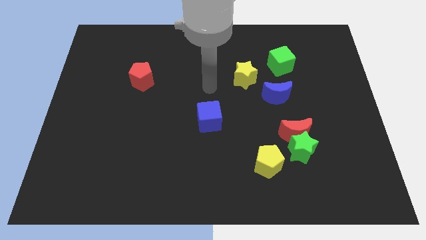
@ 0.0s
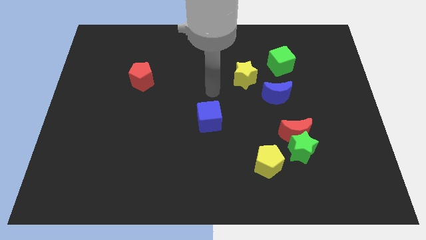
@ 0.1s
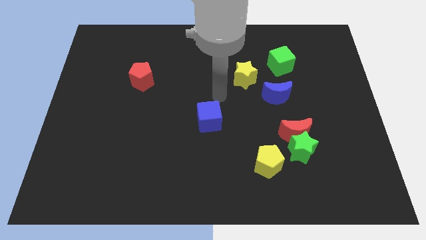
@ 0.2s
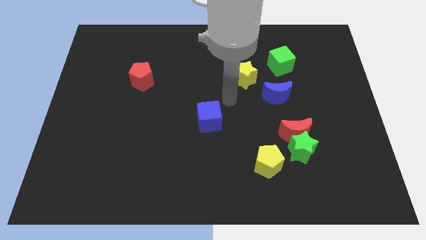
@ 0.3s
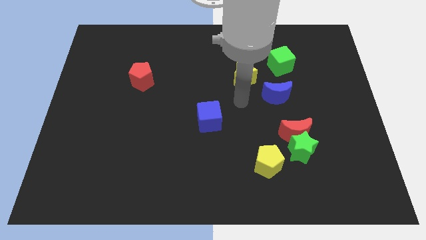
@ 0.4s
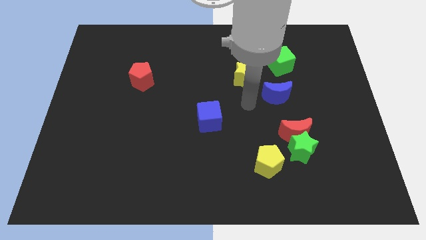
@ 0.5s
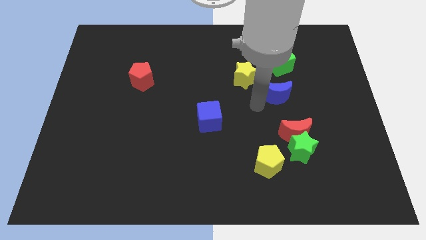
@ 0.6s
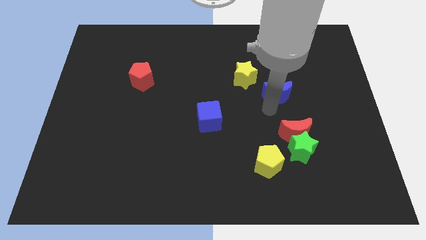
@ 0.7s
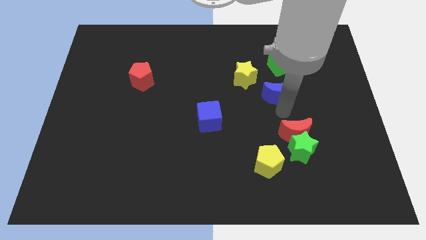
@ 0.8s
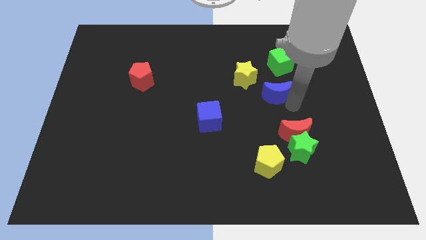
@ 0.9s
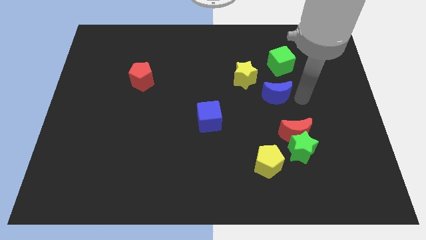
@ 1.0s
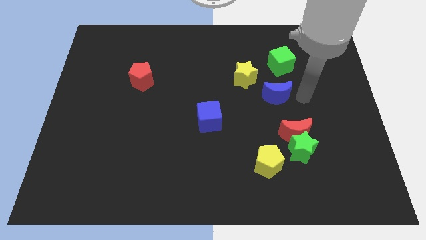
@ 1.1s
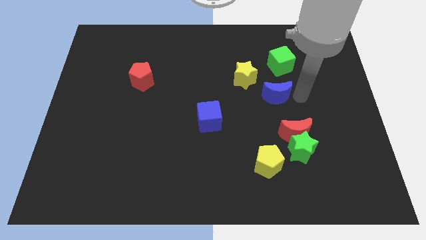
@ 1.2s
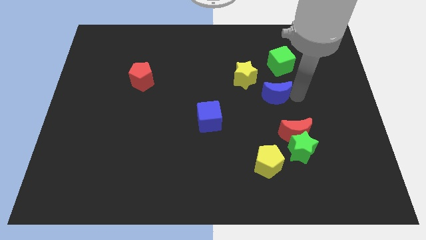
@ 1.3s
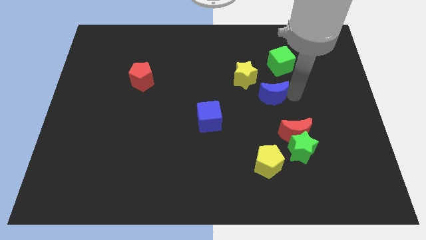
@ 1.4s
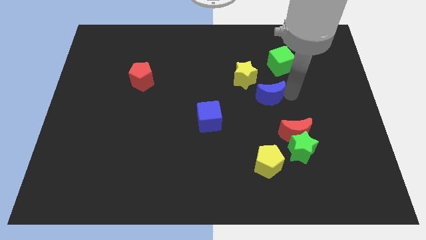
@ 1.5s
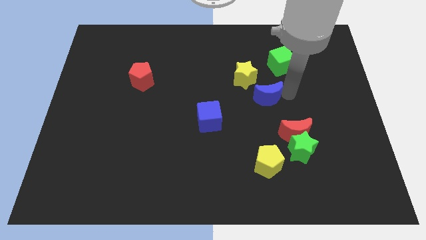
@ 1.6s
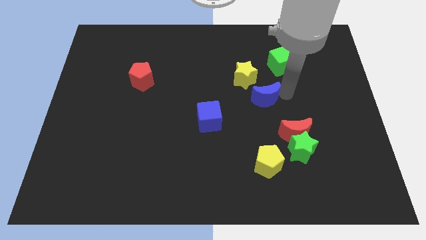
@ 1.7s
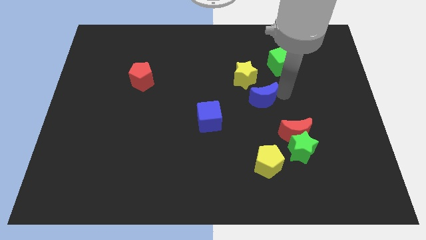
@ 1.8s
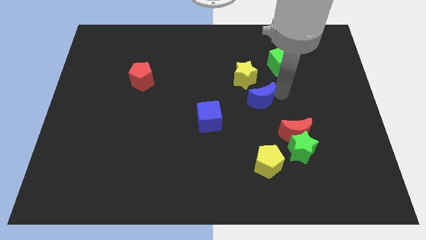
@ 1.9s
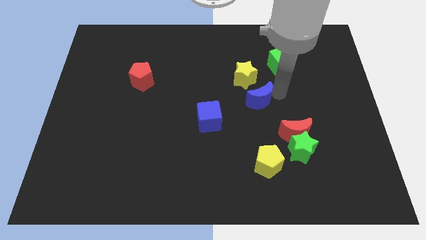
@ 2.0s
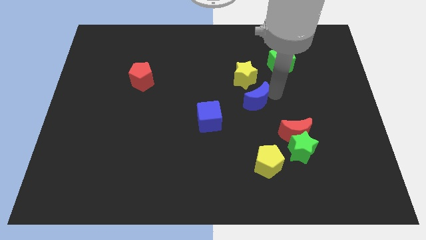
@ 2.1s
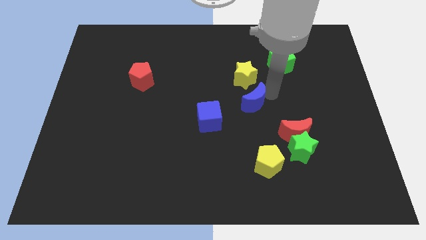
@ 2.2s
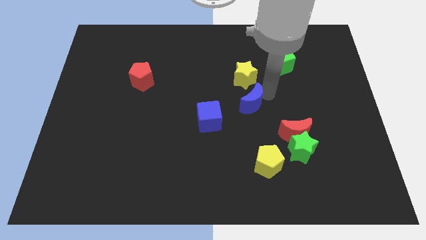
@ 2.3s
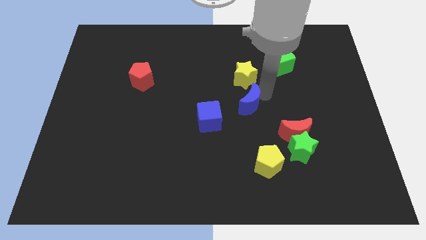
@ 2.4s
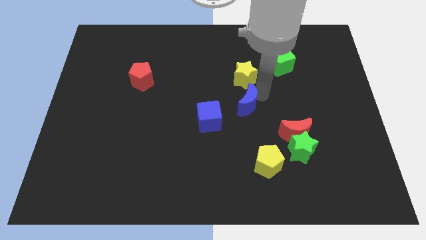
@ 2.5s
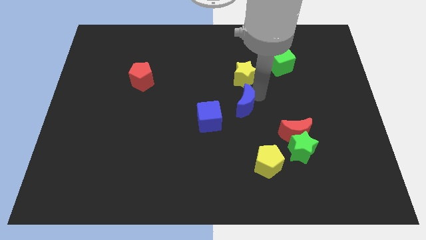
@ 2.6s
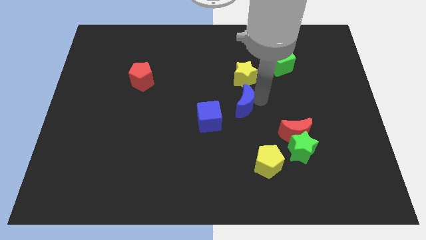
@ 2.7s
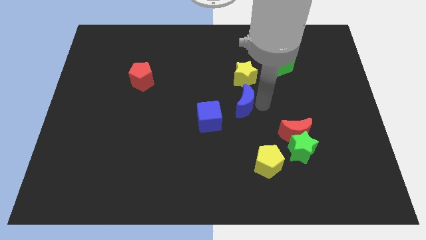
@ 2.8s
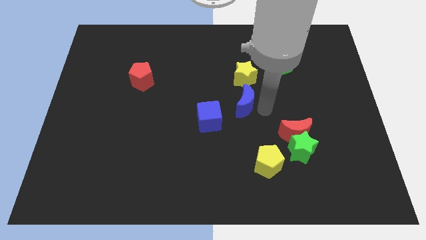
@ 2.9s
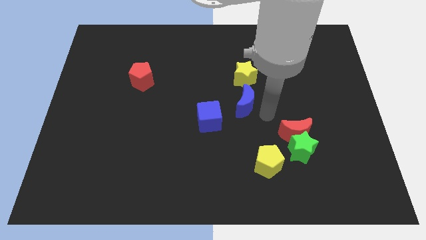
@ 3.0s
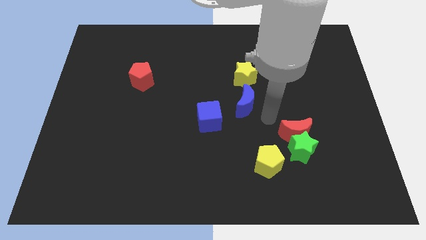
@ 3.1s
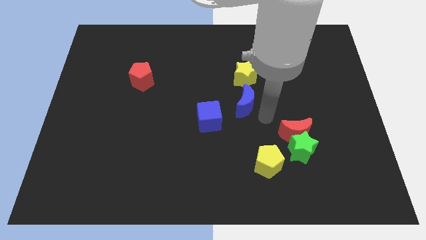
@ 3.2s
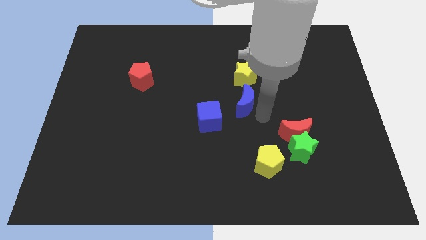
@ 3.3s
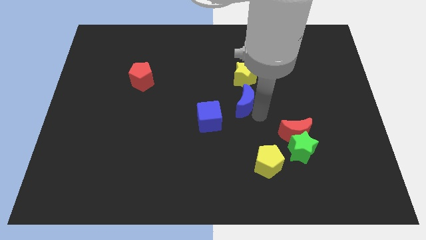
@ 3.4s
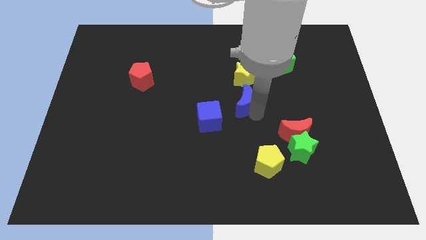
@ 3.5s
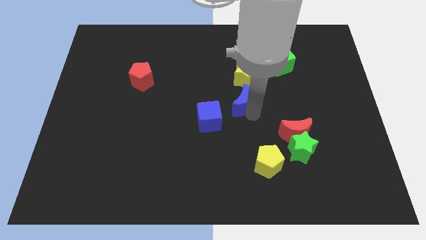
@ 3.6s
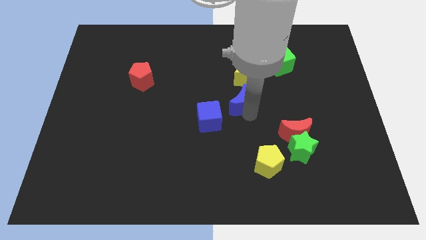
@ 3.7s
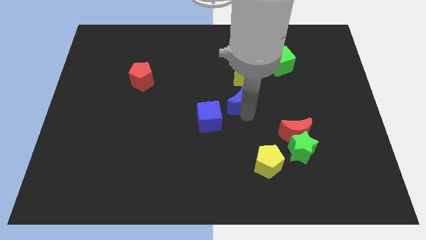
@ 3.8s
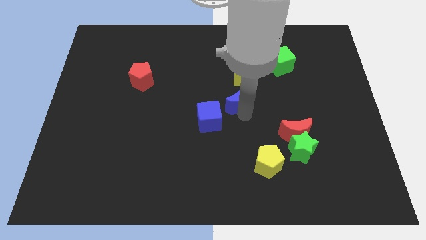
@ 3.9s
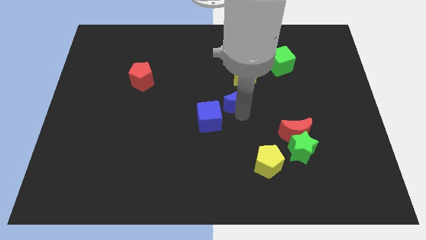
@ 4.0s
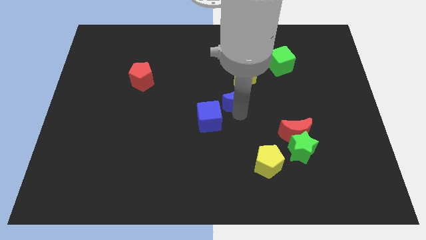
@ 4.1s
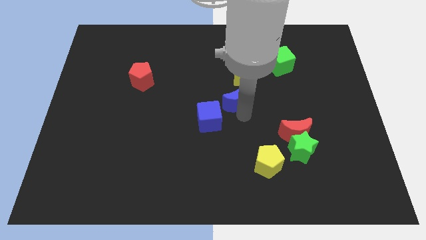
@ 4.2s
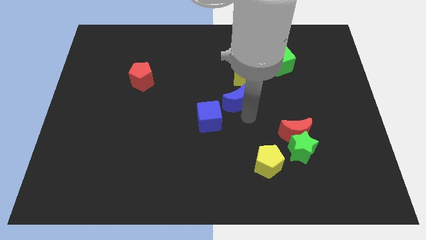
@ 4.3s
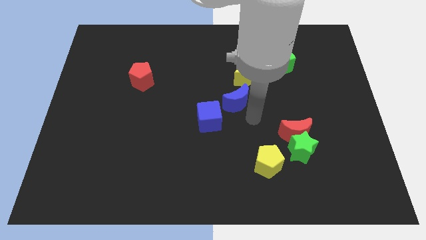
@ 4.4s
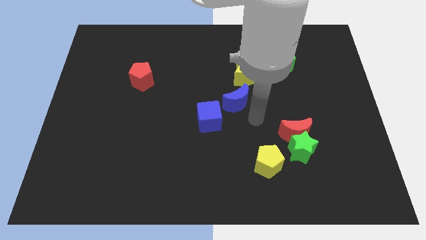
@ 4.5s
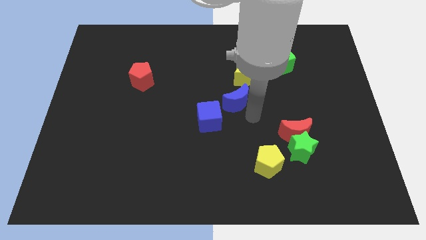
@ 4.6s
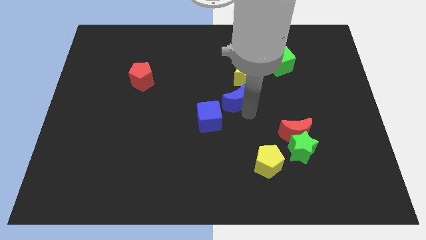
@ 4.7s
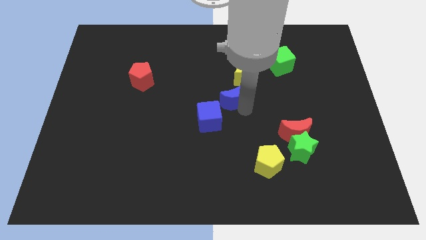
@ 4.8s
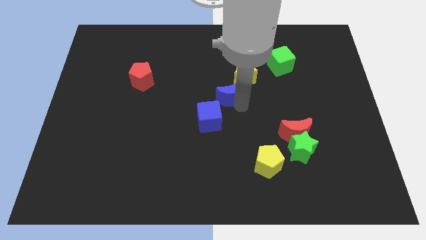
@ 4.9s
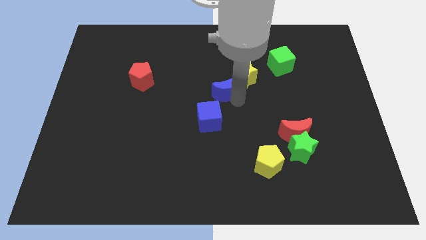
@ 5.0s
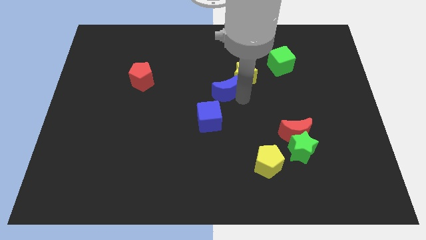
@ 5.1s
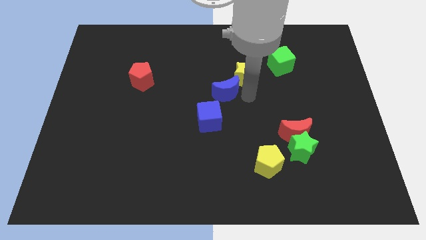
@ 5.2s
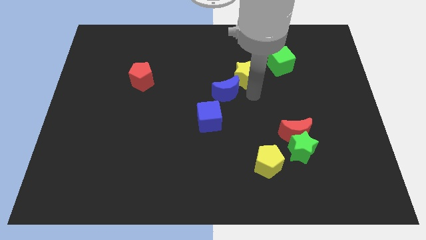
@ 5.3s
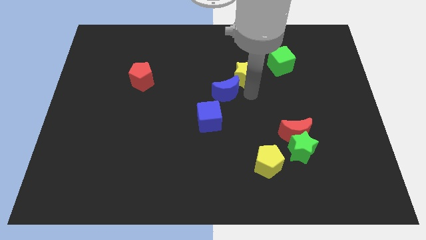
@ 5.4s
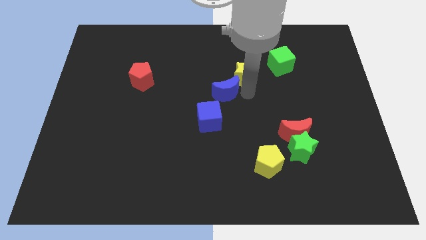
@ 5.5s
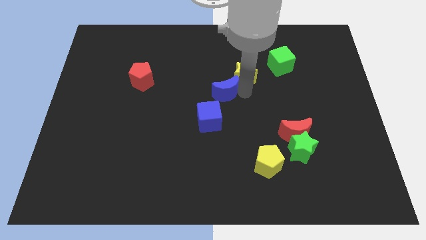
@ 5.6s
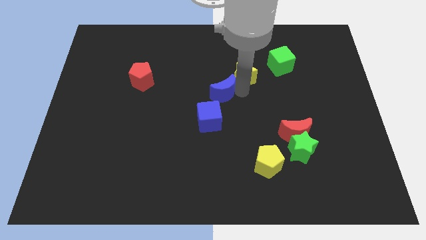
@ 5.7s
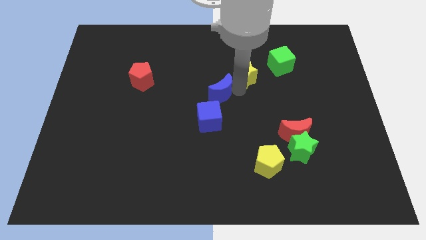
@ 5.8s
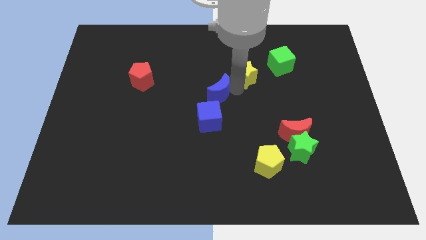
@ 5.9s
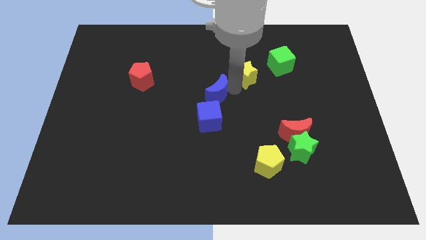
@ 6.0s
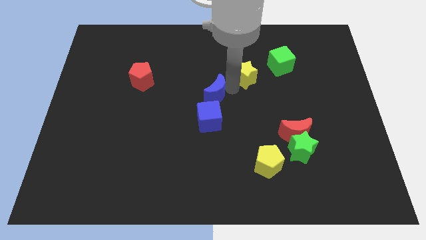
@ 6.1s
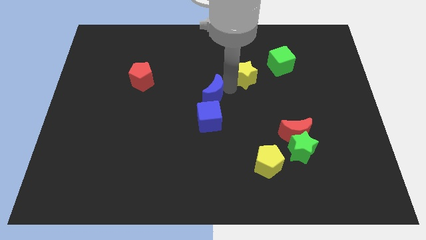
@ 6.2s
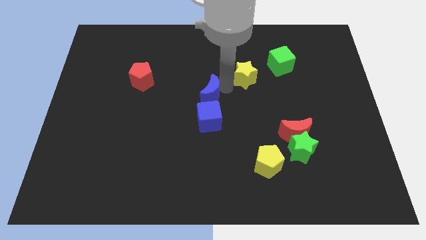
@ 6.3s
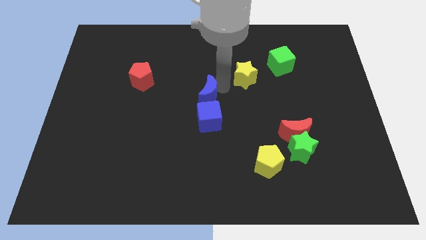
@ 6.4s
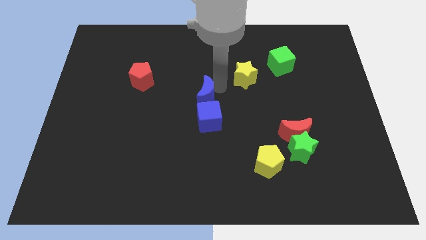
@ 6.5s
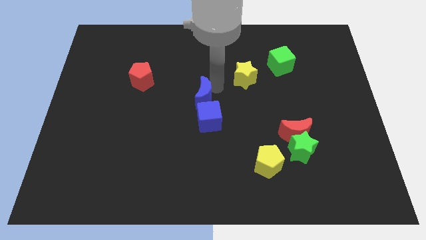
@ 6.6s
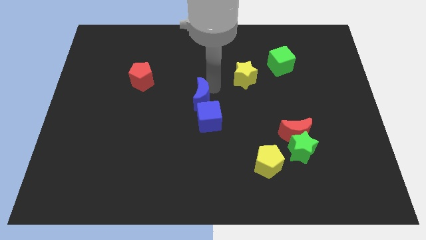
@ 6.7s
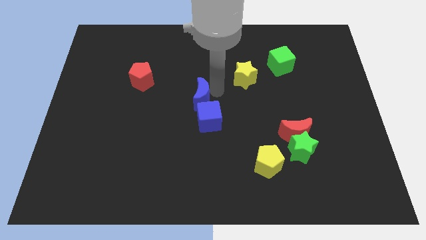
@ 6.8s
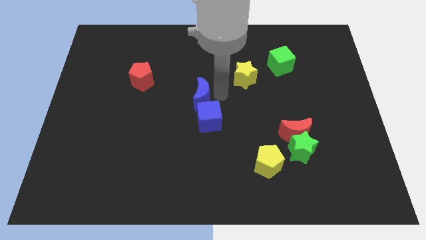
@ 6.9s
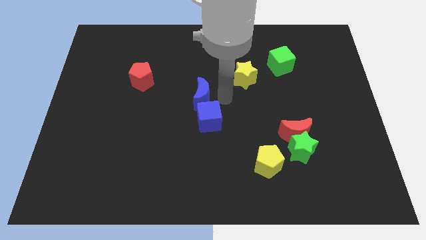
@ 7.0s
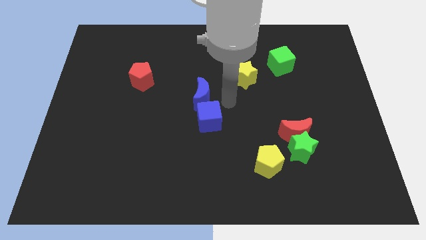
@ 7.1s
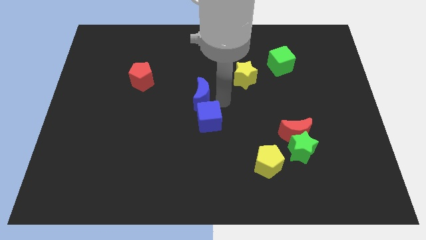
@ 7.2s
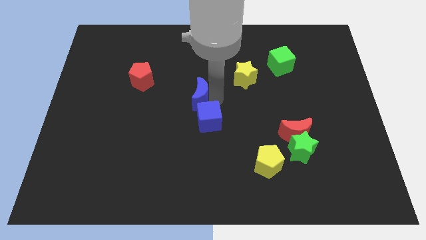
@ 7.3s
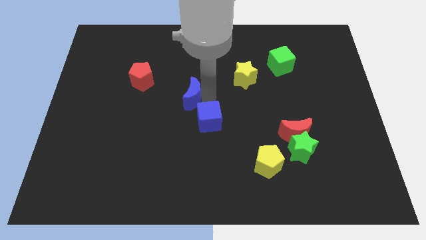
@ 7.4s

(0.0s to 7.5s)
slide the blue moon left

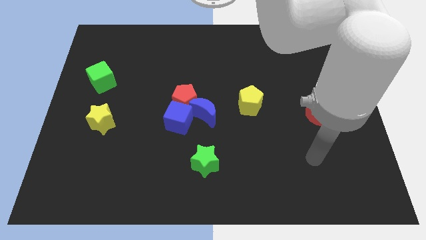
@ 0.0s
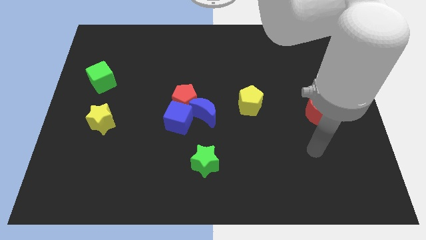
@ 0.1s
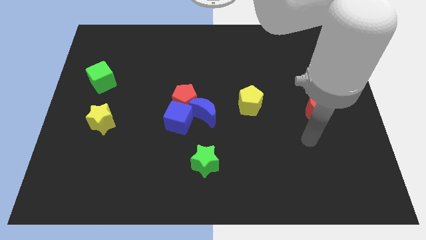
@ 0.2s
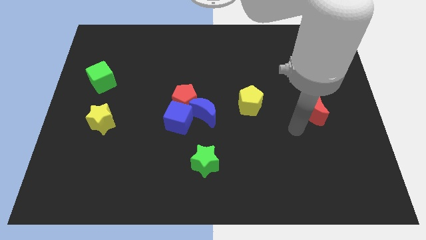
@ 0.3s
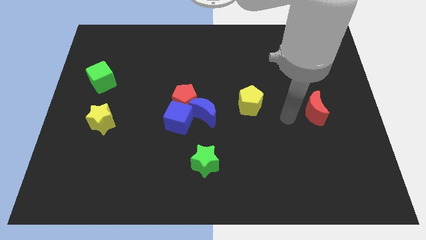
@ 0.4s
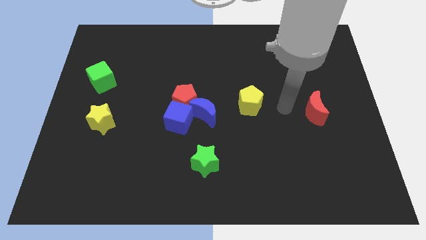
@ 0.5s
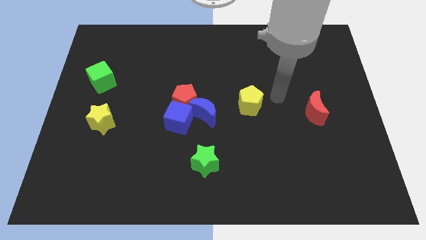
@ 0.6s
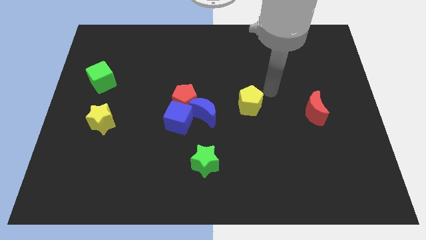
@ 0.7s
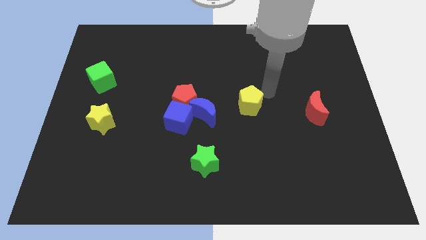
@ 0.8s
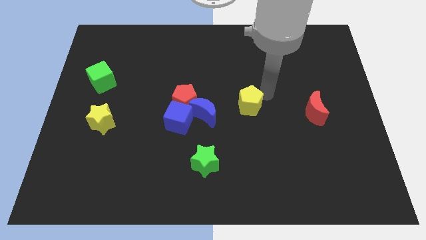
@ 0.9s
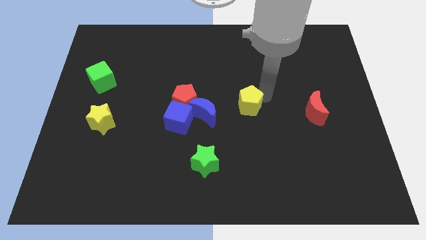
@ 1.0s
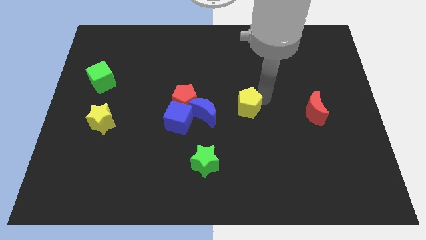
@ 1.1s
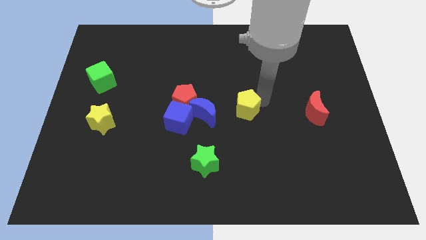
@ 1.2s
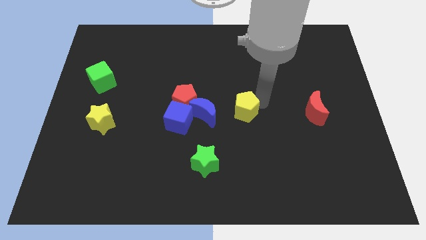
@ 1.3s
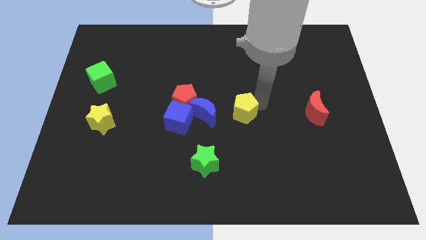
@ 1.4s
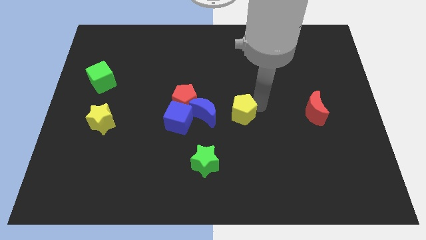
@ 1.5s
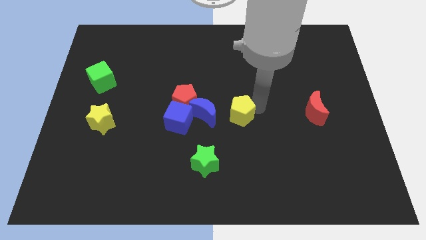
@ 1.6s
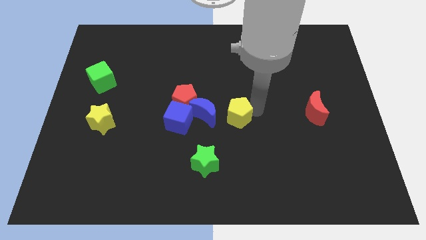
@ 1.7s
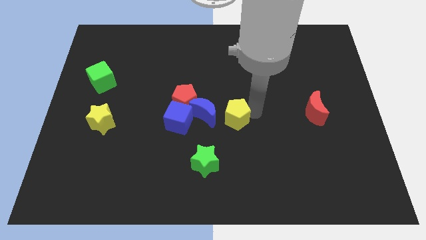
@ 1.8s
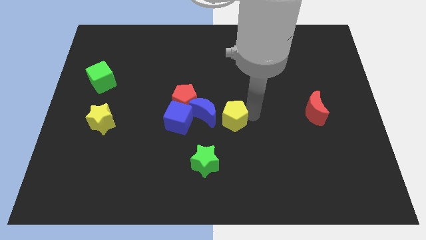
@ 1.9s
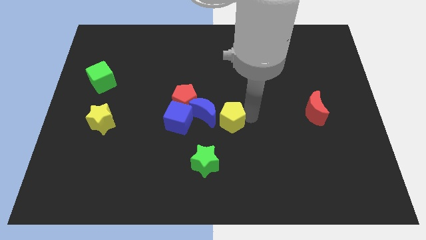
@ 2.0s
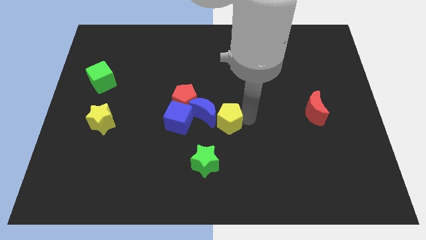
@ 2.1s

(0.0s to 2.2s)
move the yellow pentagon down and left diagonally a little
